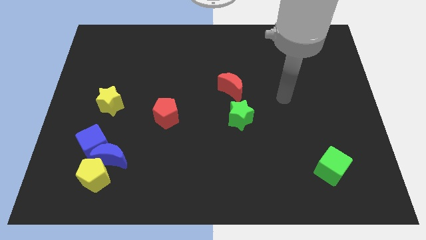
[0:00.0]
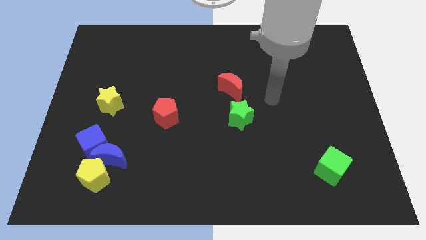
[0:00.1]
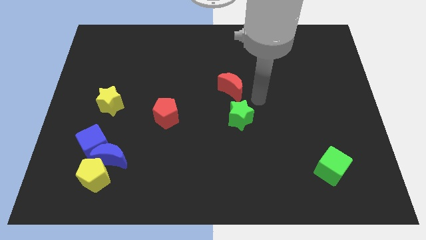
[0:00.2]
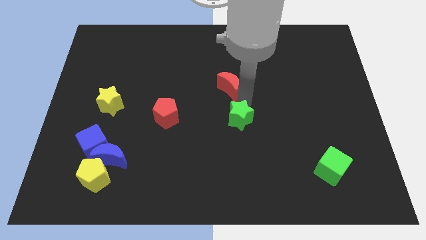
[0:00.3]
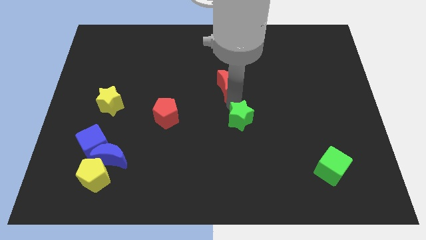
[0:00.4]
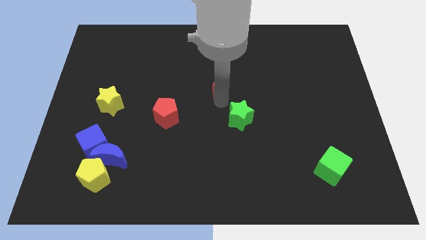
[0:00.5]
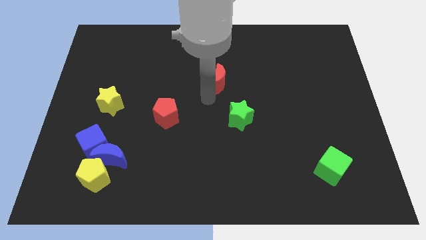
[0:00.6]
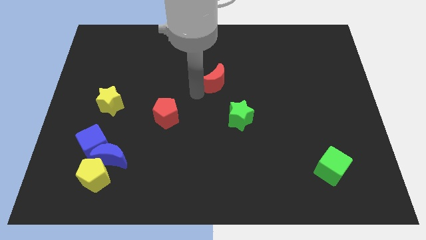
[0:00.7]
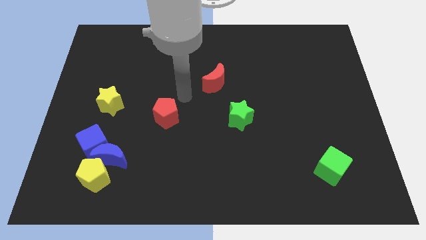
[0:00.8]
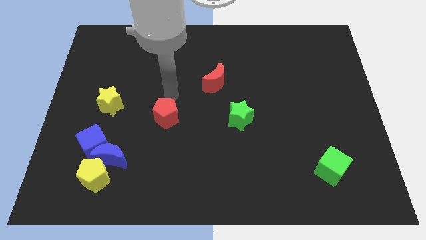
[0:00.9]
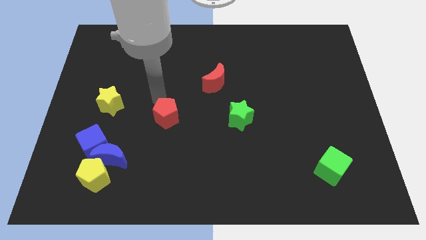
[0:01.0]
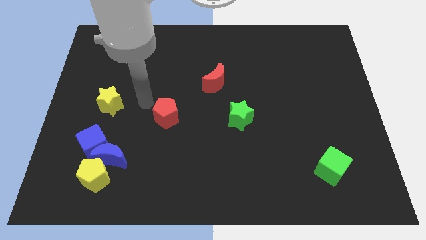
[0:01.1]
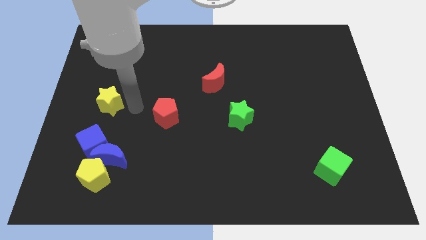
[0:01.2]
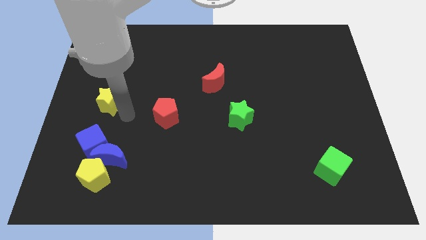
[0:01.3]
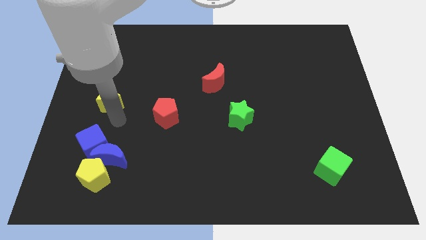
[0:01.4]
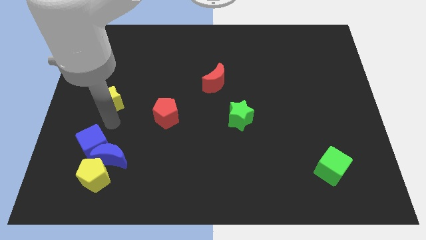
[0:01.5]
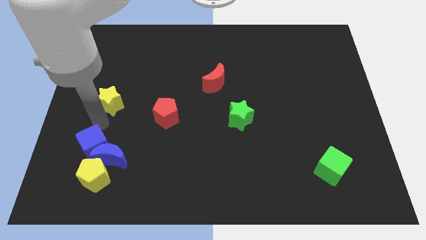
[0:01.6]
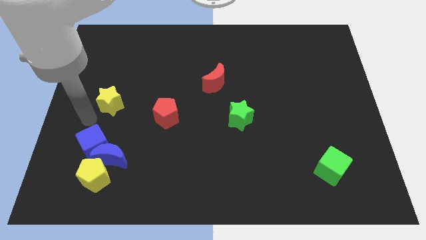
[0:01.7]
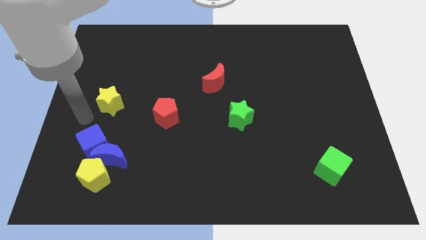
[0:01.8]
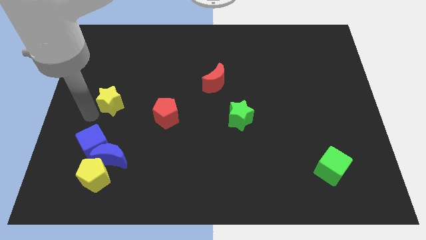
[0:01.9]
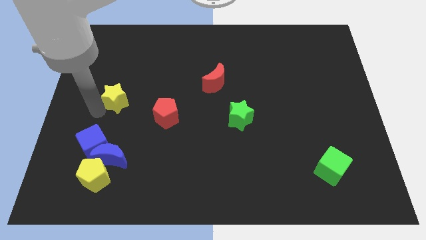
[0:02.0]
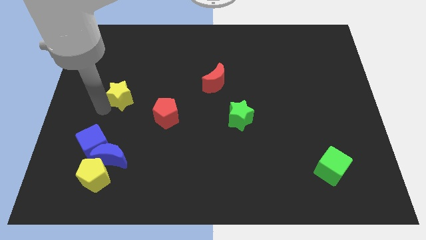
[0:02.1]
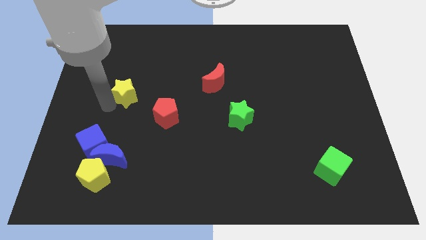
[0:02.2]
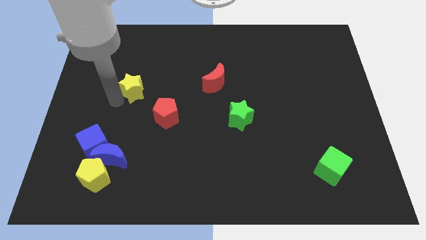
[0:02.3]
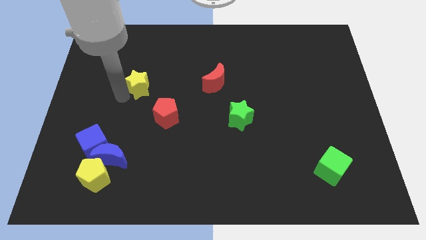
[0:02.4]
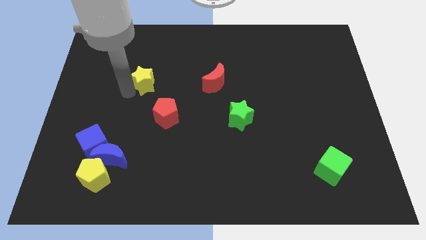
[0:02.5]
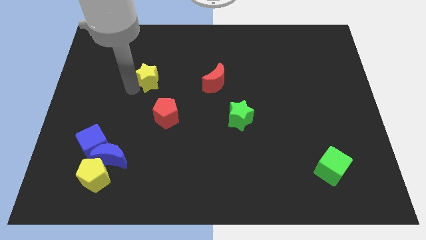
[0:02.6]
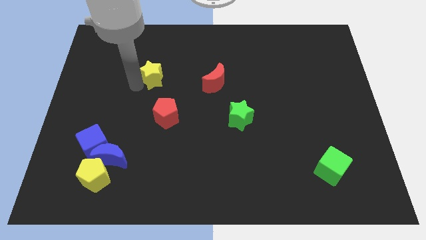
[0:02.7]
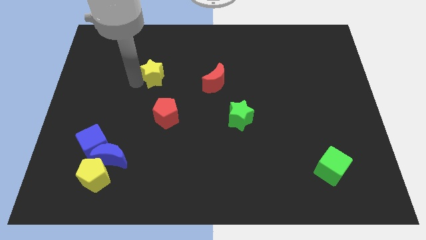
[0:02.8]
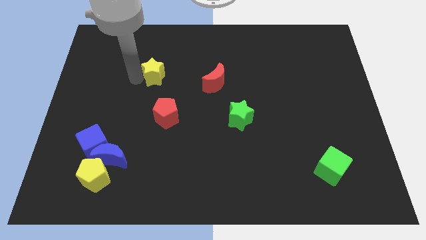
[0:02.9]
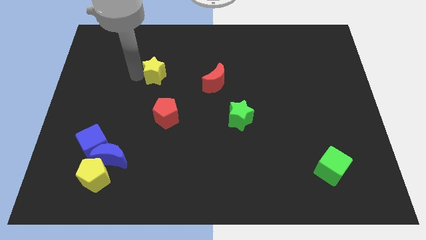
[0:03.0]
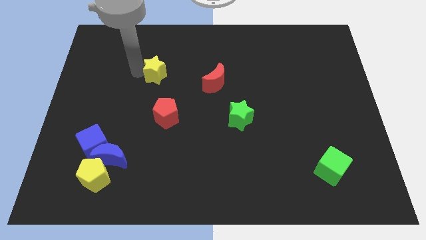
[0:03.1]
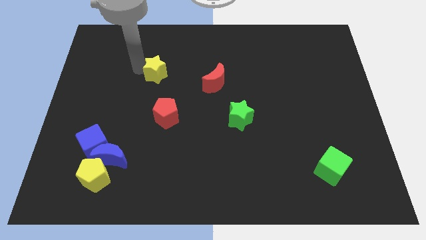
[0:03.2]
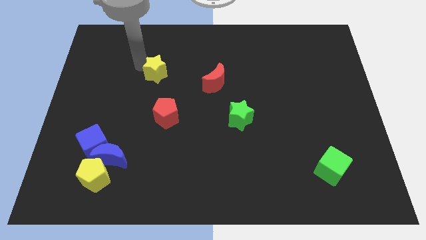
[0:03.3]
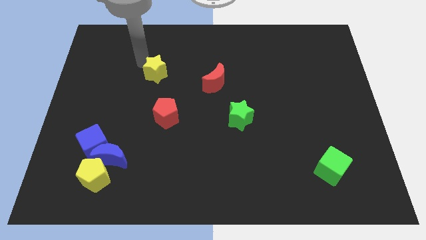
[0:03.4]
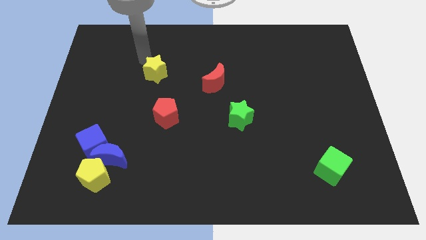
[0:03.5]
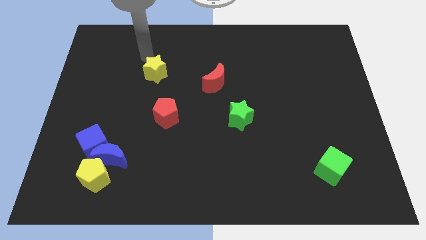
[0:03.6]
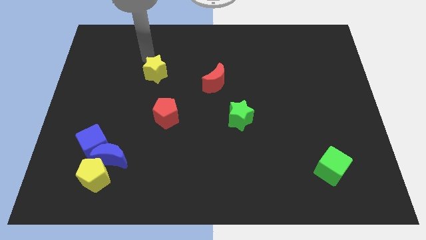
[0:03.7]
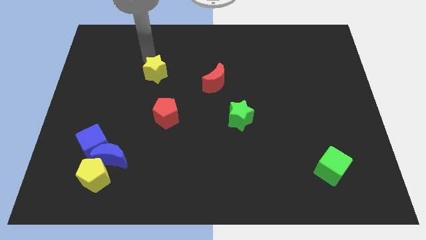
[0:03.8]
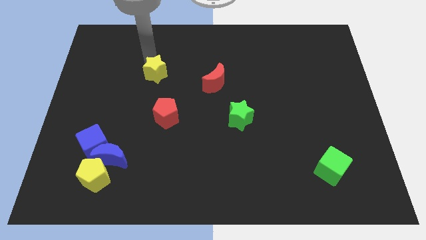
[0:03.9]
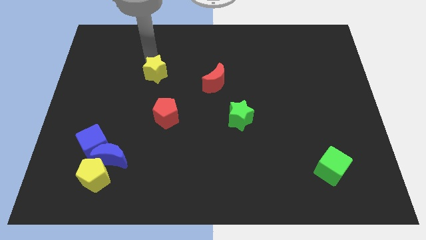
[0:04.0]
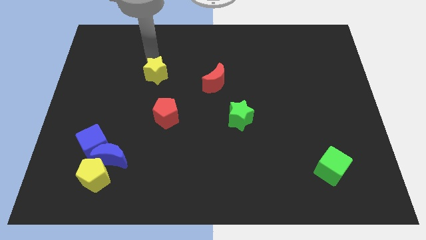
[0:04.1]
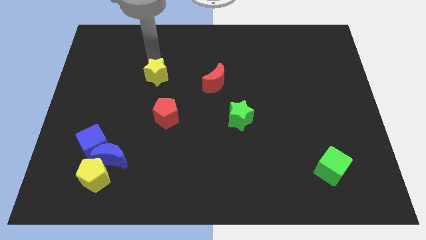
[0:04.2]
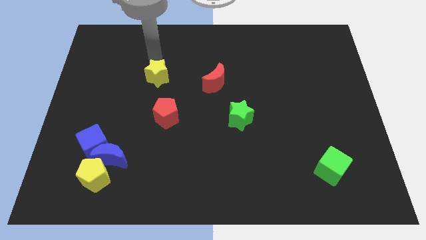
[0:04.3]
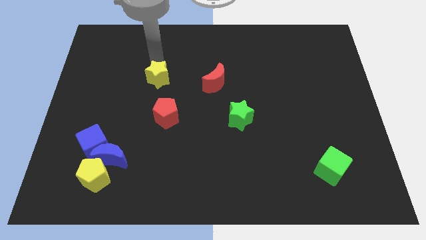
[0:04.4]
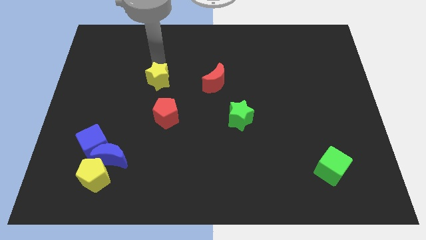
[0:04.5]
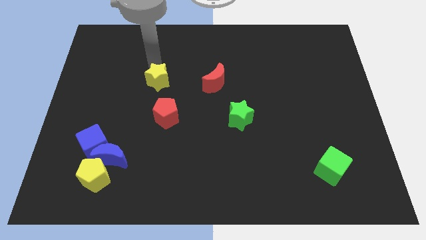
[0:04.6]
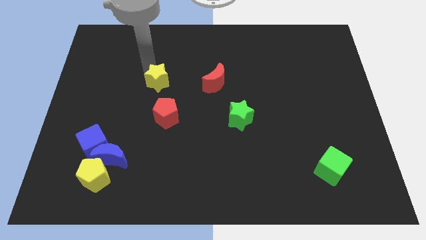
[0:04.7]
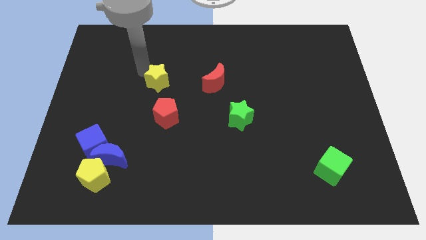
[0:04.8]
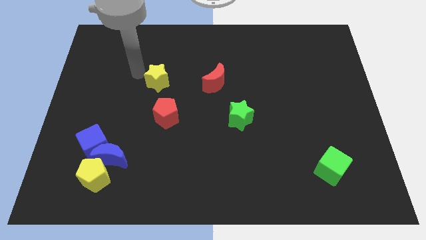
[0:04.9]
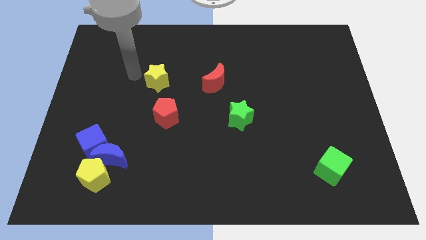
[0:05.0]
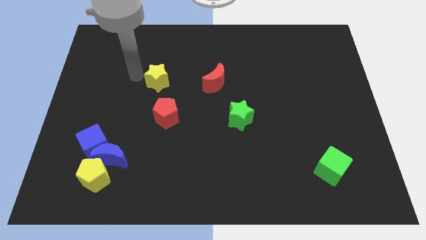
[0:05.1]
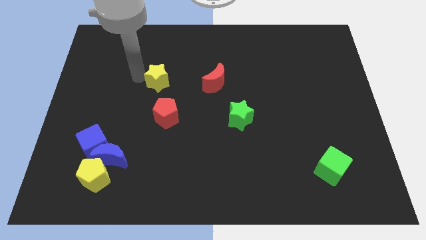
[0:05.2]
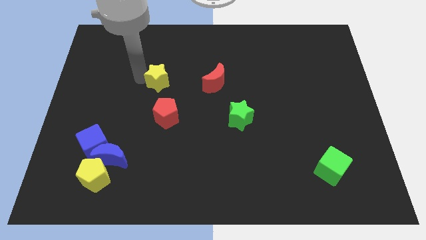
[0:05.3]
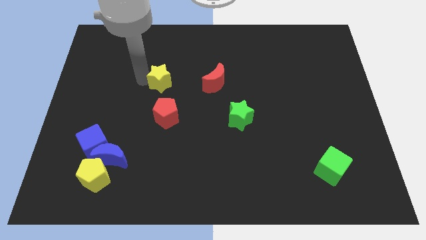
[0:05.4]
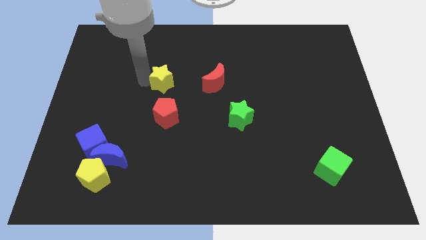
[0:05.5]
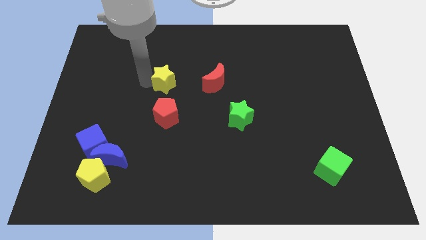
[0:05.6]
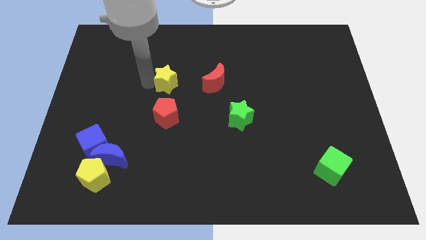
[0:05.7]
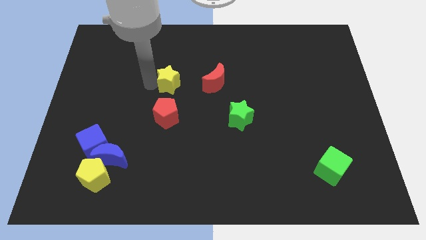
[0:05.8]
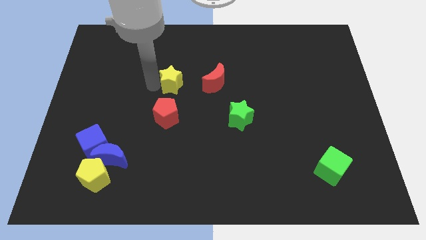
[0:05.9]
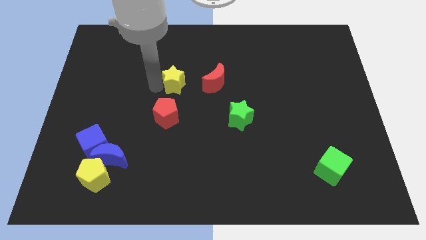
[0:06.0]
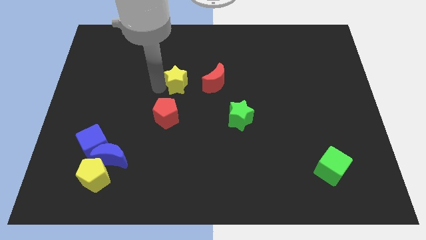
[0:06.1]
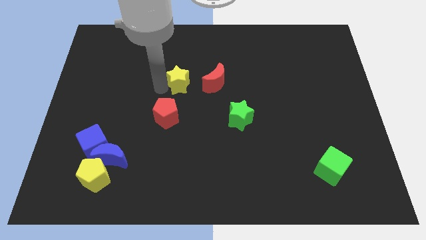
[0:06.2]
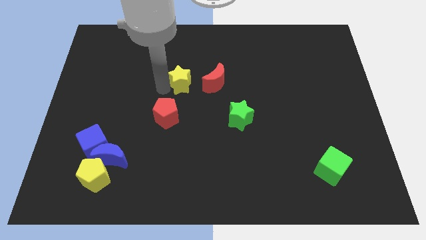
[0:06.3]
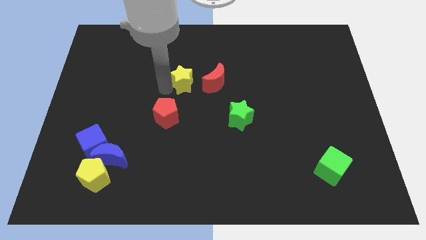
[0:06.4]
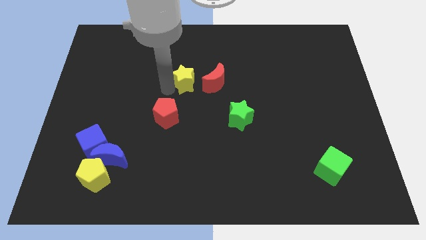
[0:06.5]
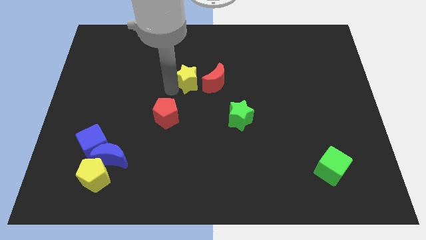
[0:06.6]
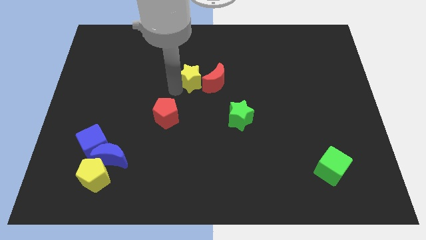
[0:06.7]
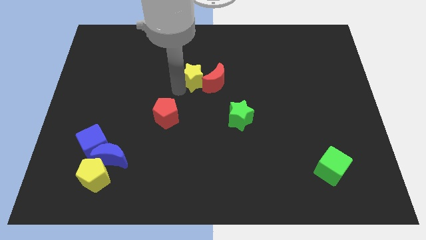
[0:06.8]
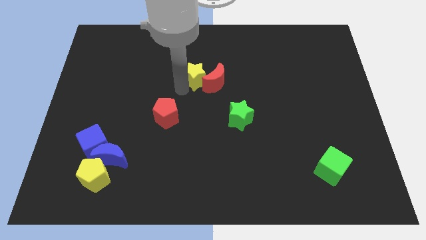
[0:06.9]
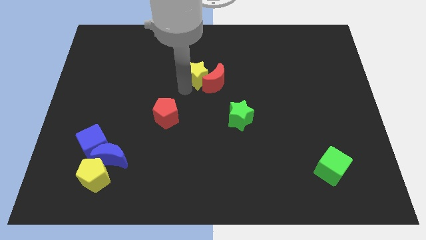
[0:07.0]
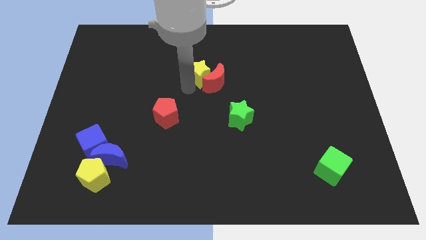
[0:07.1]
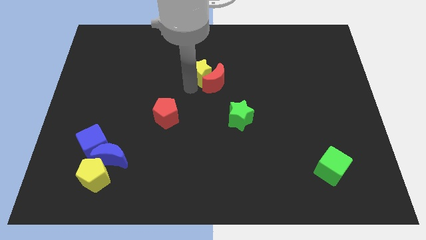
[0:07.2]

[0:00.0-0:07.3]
move the yellow star to the top side of the red moon

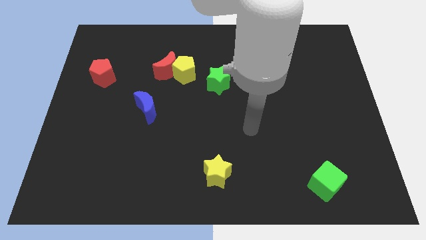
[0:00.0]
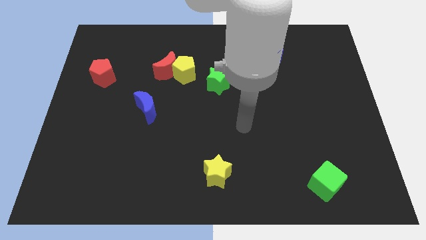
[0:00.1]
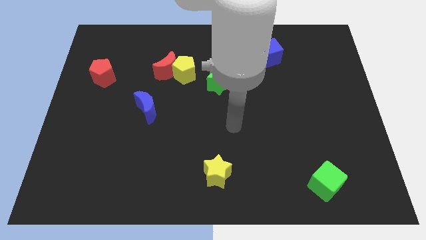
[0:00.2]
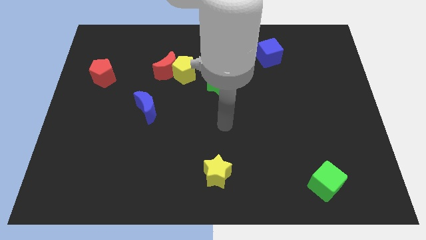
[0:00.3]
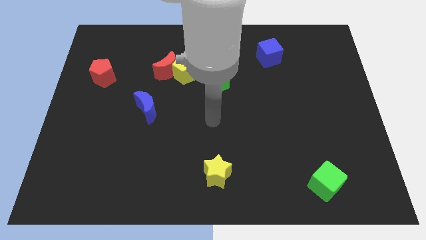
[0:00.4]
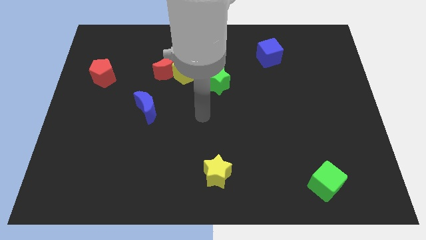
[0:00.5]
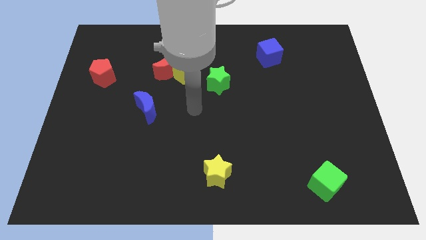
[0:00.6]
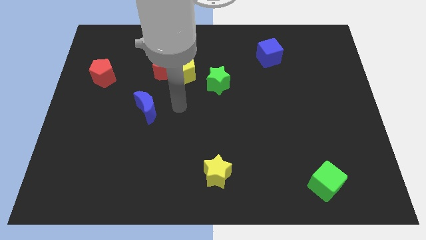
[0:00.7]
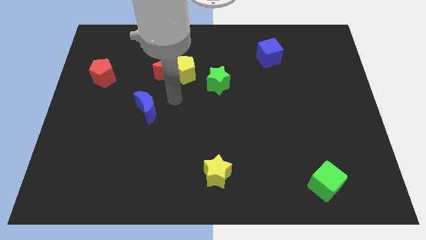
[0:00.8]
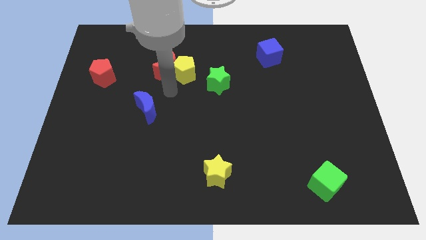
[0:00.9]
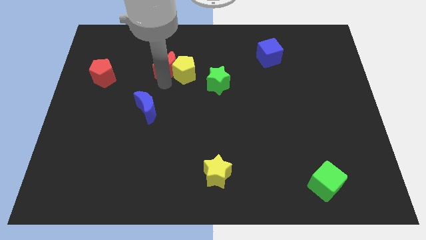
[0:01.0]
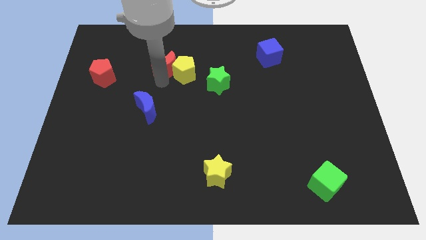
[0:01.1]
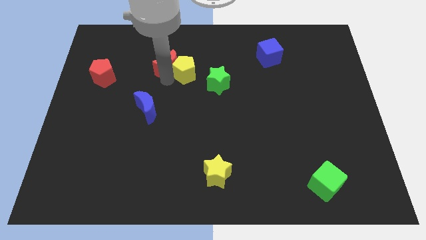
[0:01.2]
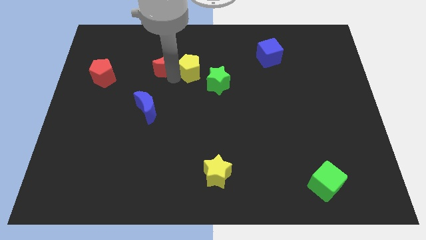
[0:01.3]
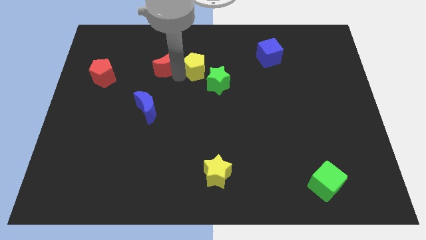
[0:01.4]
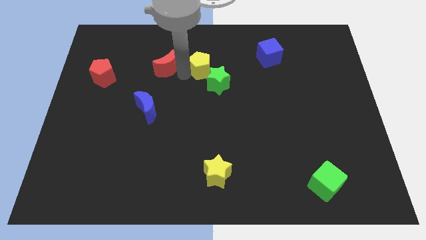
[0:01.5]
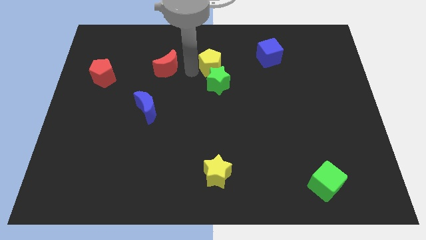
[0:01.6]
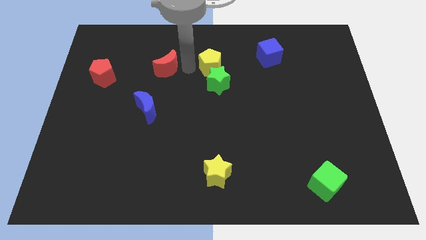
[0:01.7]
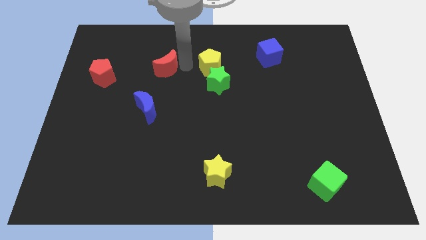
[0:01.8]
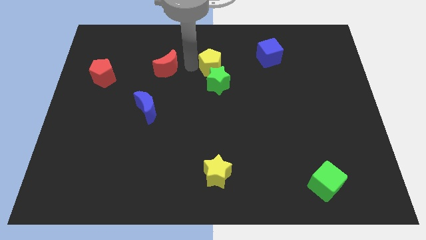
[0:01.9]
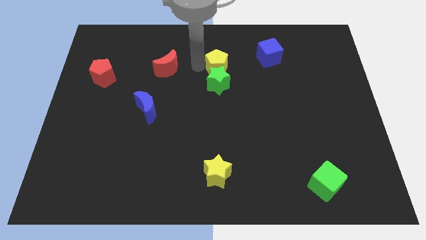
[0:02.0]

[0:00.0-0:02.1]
move the yellow pentagon diagonally up and to the right of the green star
